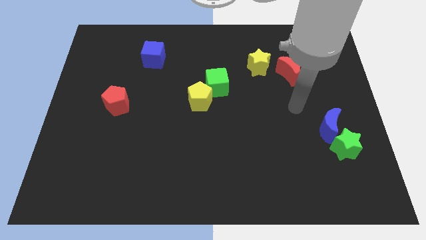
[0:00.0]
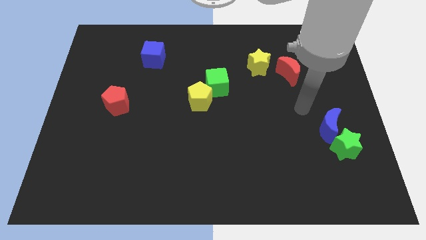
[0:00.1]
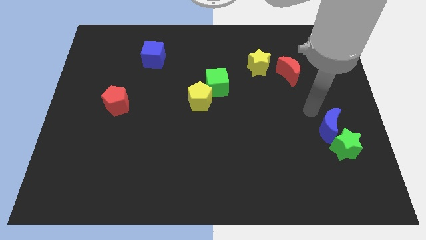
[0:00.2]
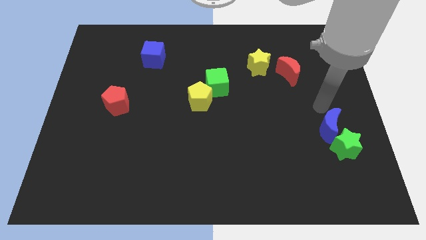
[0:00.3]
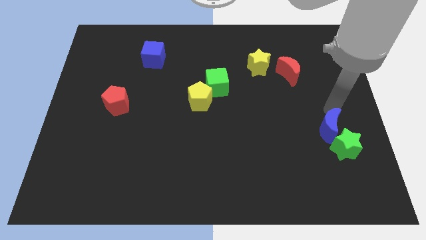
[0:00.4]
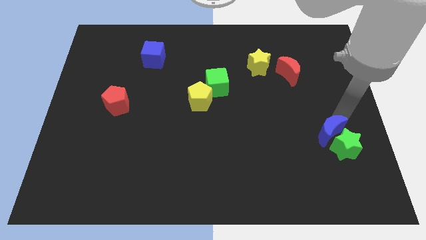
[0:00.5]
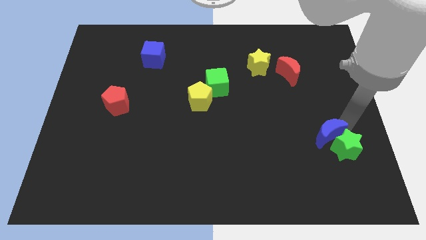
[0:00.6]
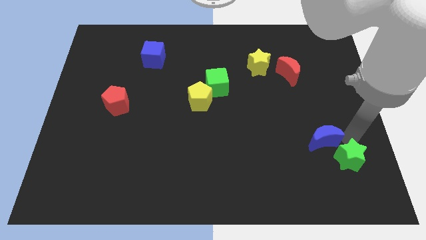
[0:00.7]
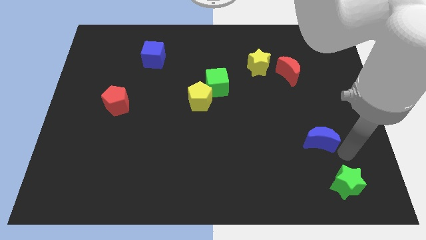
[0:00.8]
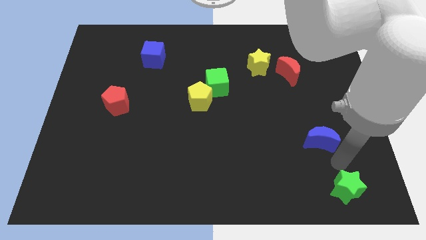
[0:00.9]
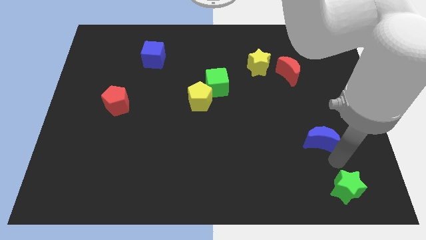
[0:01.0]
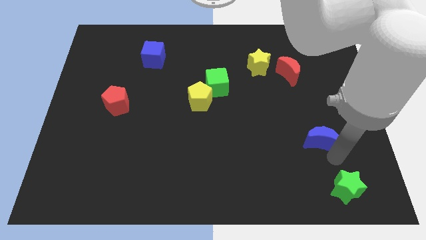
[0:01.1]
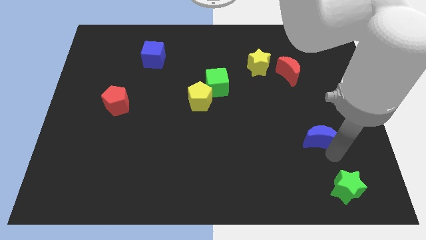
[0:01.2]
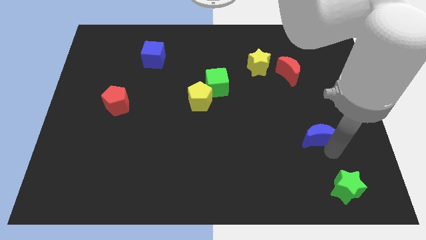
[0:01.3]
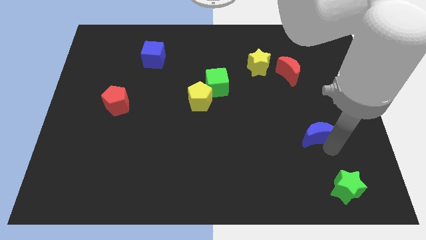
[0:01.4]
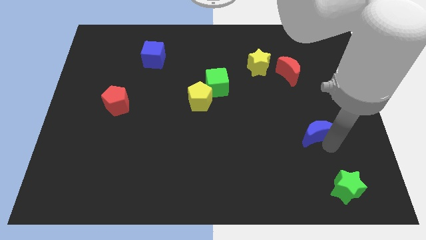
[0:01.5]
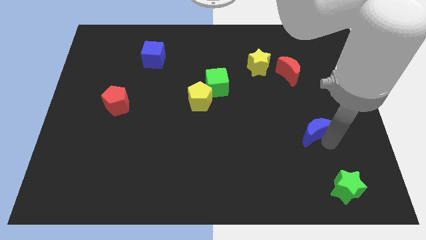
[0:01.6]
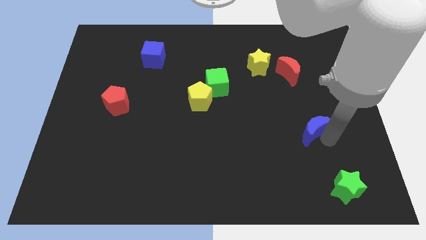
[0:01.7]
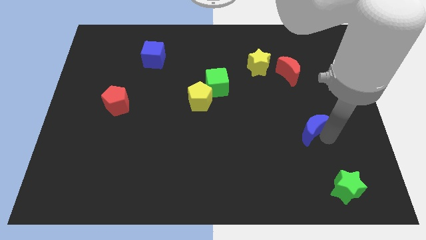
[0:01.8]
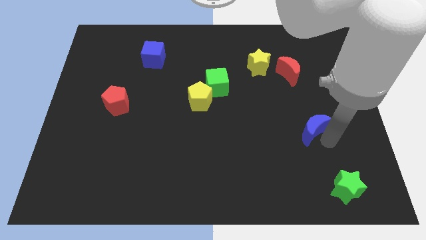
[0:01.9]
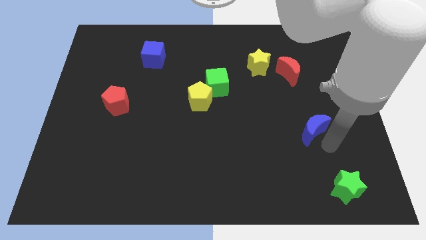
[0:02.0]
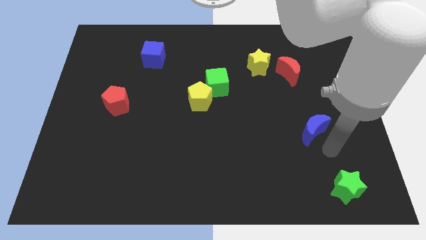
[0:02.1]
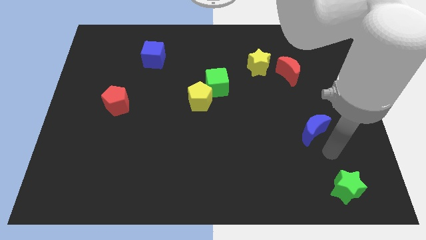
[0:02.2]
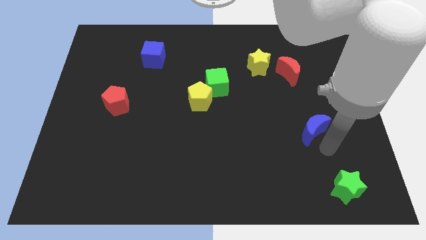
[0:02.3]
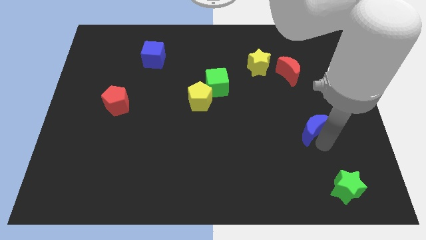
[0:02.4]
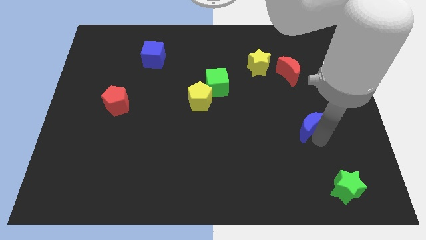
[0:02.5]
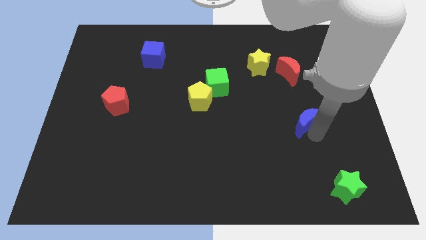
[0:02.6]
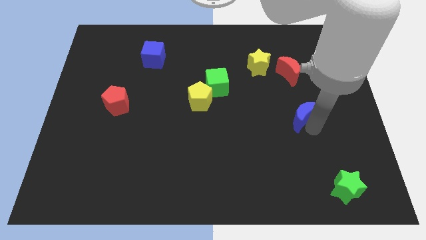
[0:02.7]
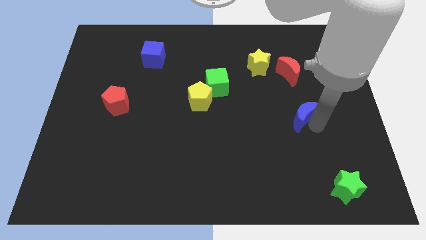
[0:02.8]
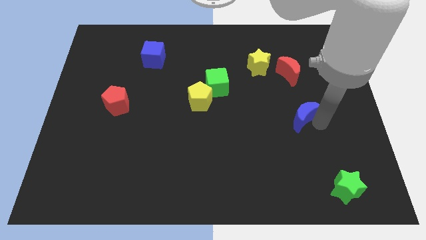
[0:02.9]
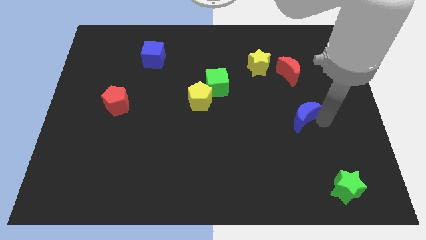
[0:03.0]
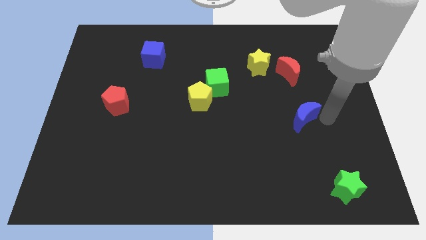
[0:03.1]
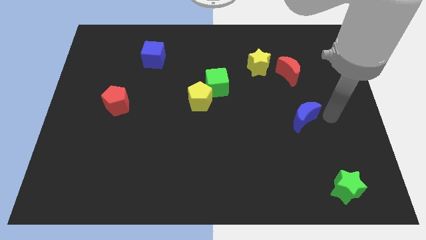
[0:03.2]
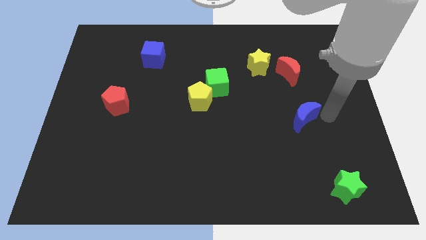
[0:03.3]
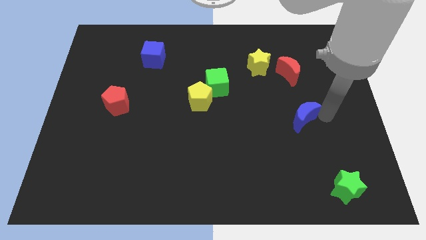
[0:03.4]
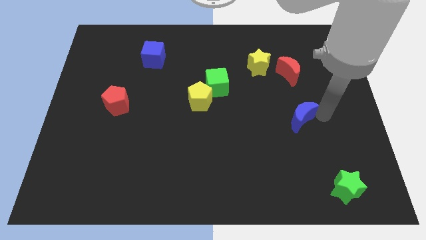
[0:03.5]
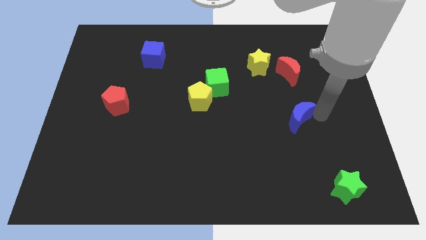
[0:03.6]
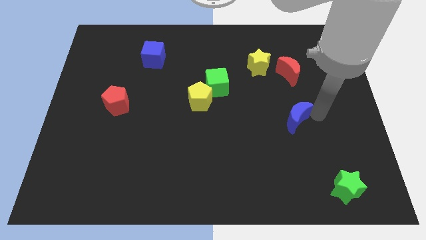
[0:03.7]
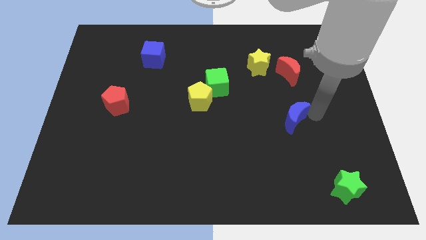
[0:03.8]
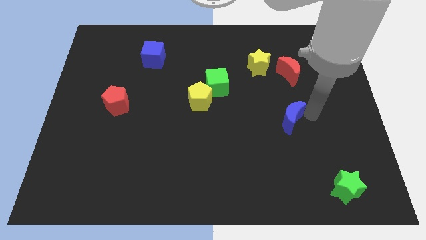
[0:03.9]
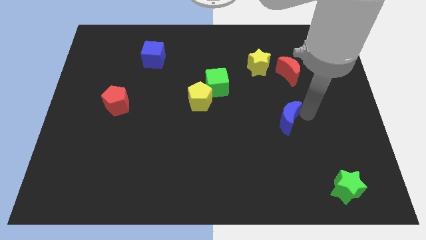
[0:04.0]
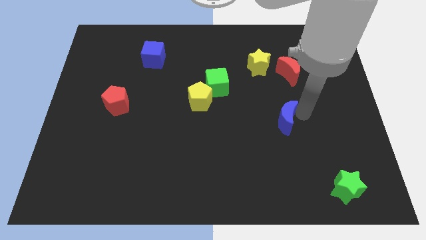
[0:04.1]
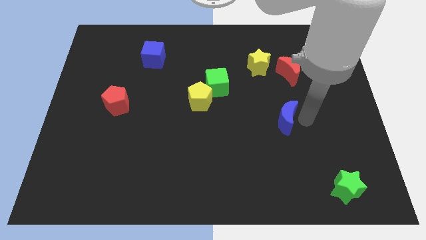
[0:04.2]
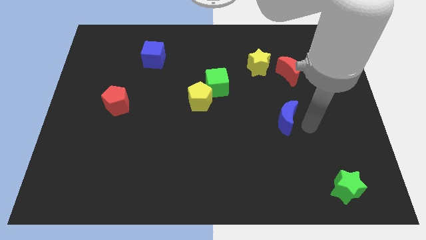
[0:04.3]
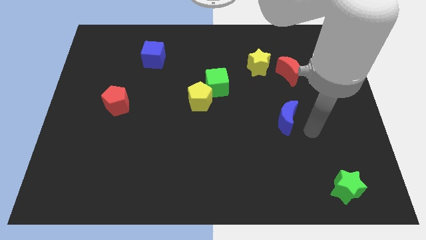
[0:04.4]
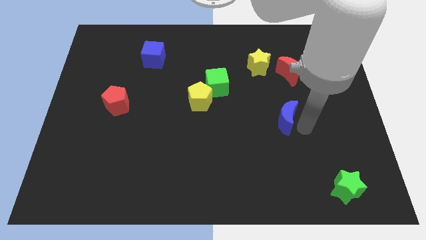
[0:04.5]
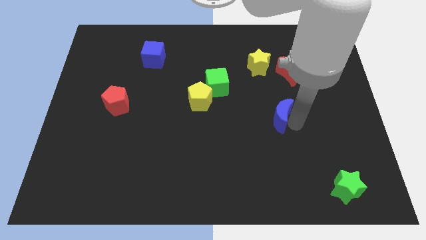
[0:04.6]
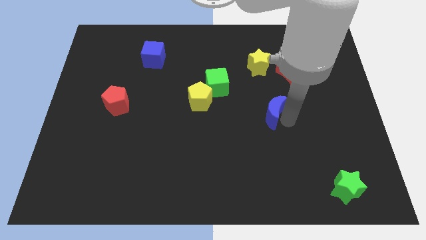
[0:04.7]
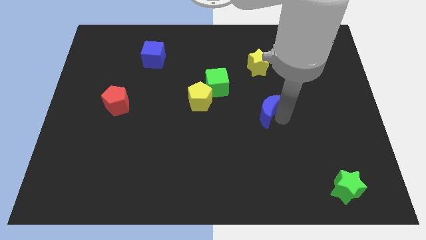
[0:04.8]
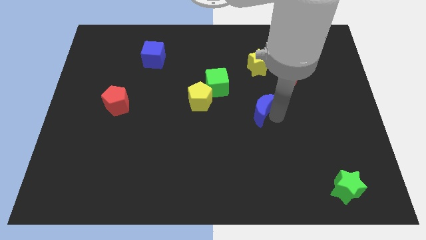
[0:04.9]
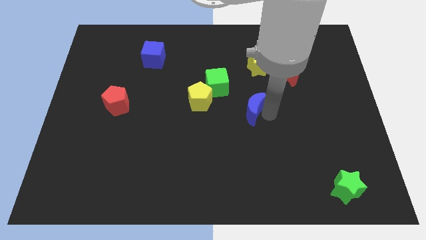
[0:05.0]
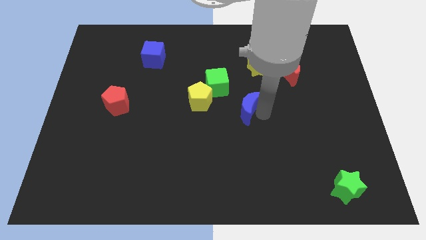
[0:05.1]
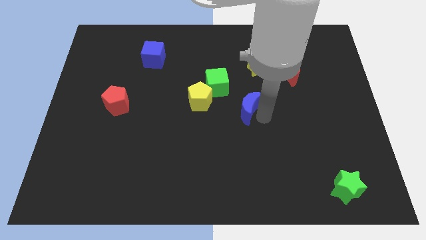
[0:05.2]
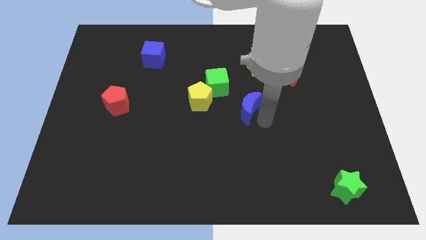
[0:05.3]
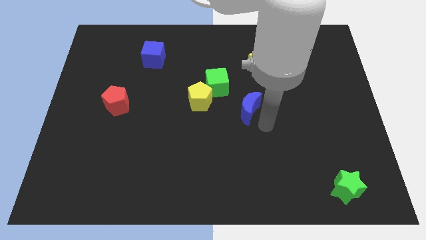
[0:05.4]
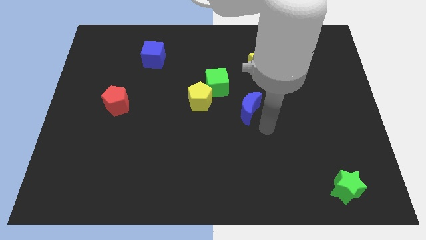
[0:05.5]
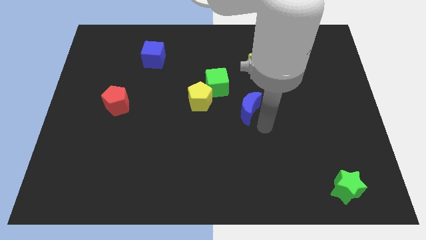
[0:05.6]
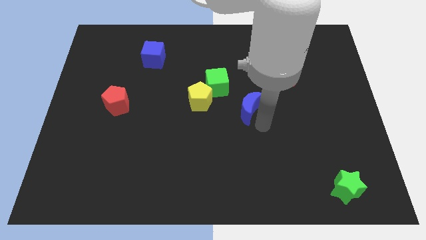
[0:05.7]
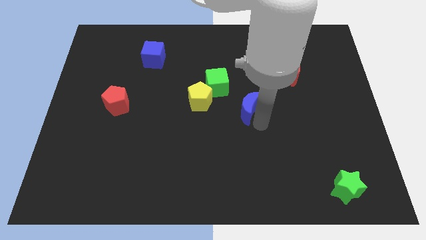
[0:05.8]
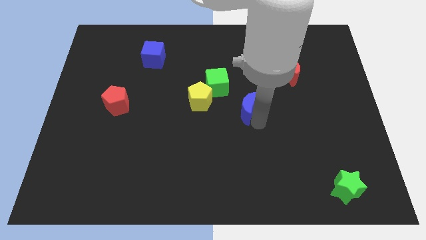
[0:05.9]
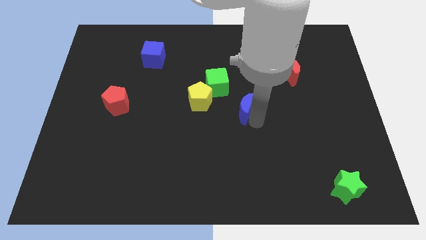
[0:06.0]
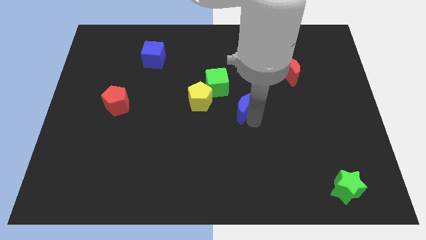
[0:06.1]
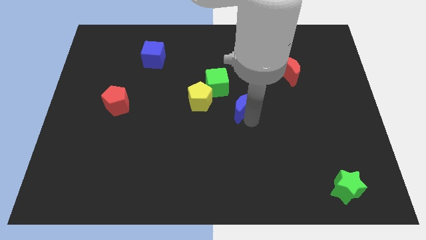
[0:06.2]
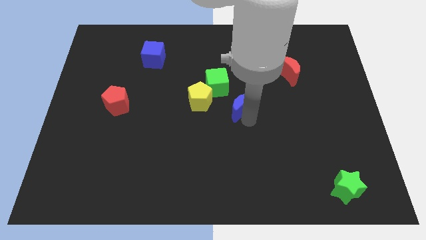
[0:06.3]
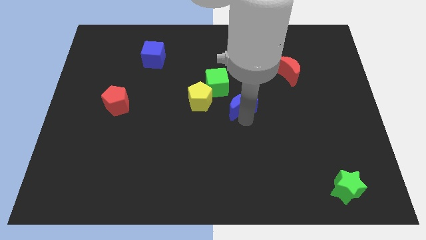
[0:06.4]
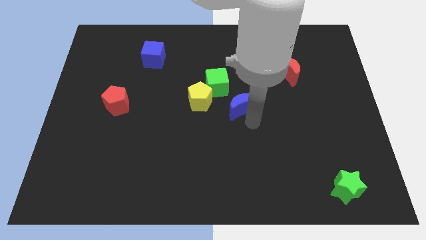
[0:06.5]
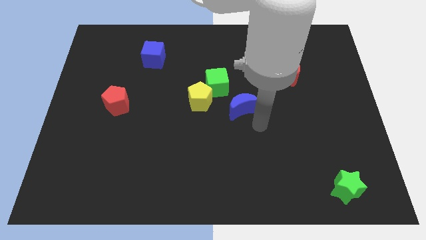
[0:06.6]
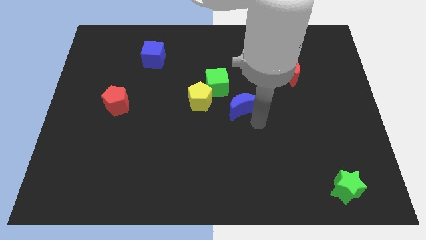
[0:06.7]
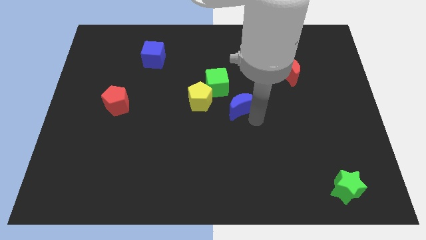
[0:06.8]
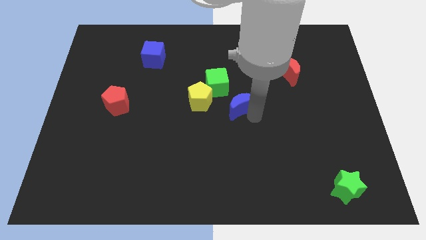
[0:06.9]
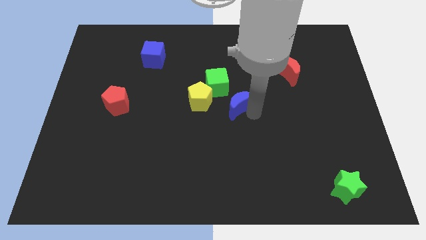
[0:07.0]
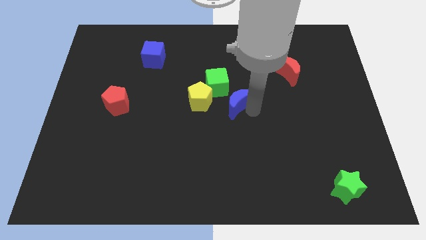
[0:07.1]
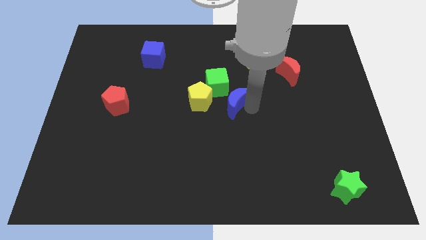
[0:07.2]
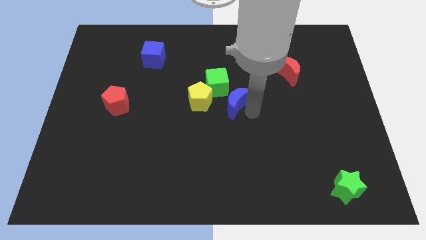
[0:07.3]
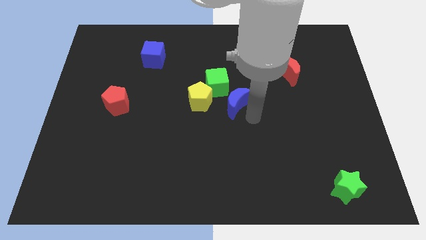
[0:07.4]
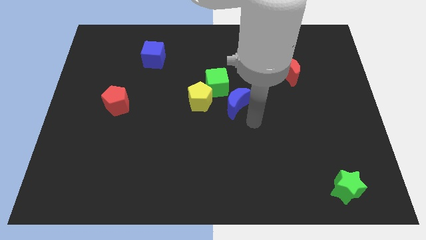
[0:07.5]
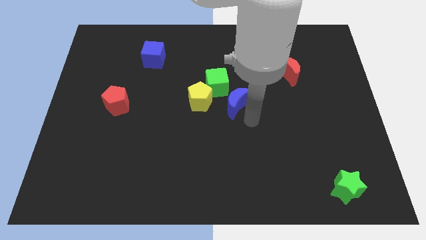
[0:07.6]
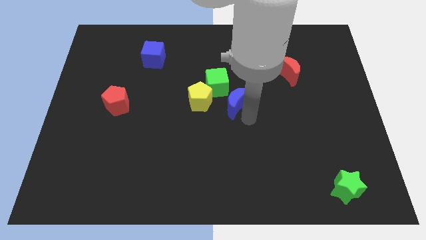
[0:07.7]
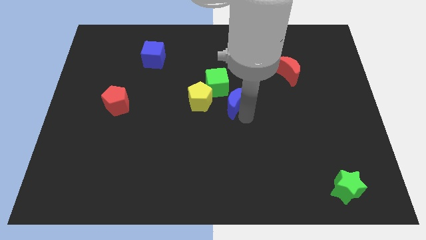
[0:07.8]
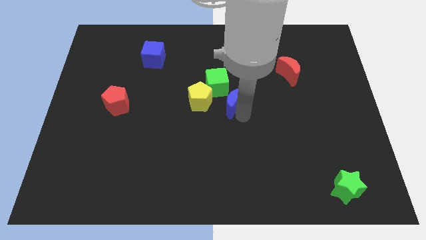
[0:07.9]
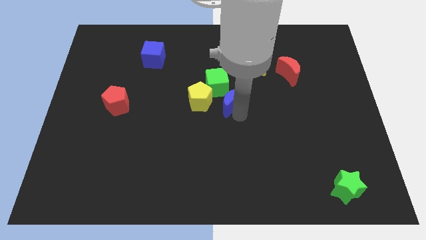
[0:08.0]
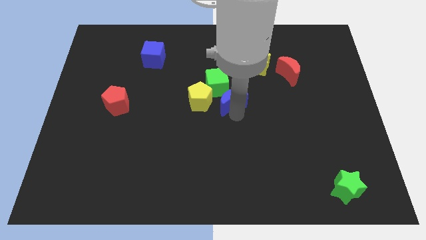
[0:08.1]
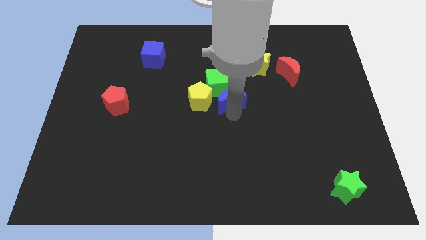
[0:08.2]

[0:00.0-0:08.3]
slide the blue moon next to the green cube
